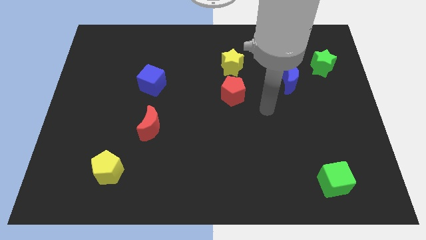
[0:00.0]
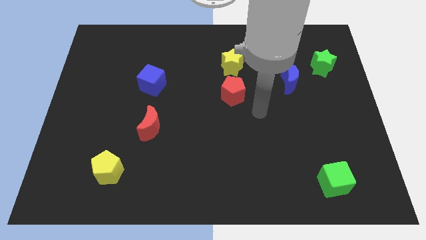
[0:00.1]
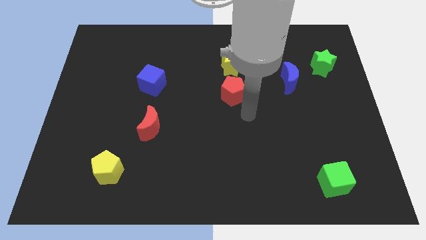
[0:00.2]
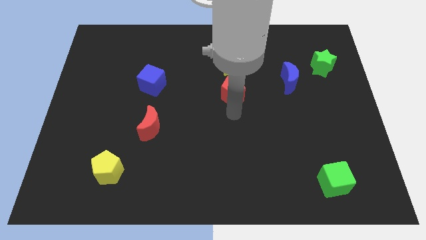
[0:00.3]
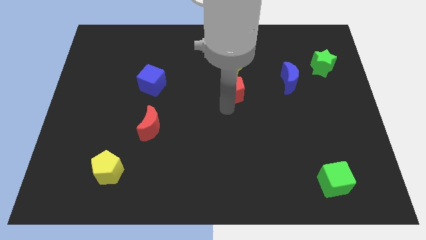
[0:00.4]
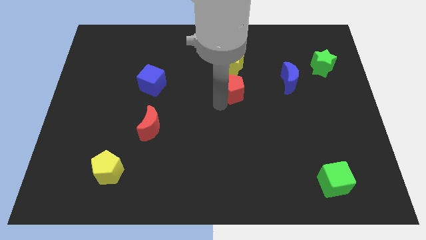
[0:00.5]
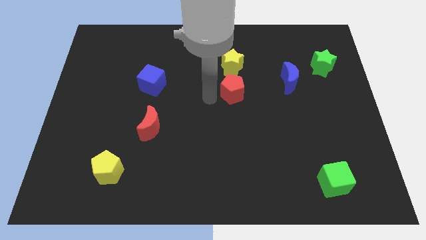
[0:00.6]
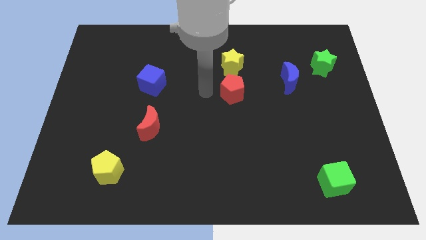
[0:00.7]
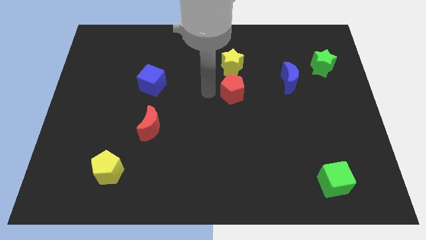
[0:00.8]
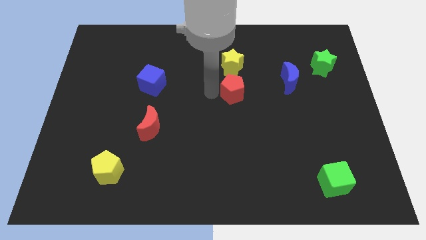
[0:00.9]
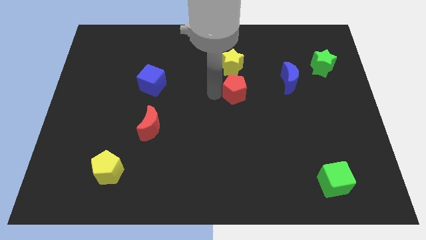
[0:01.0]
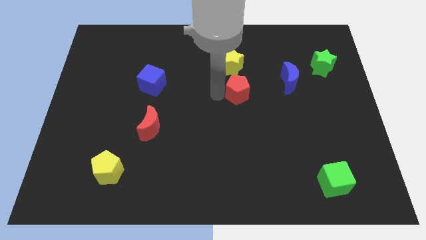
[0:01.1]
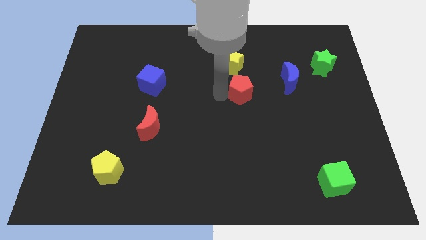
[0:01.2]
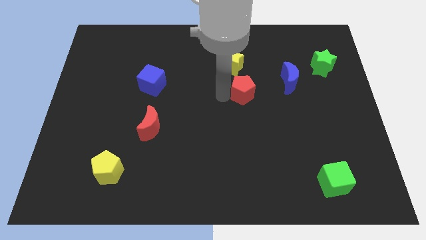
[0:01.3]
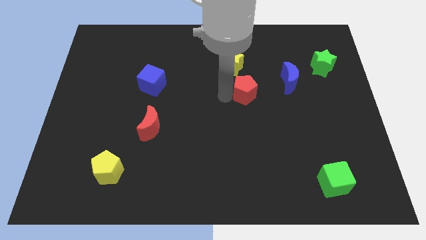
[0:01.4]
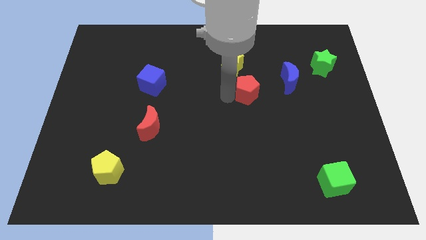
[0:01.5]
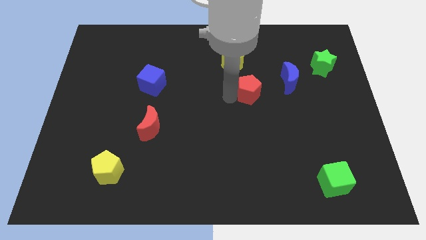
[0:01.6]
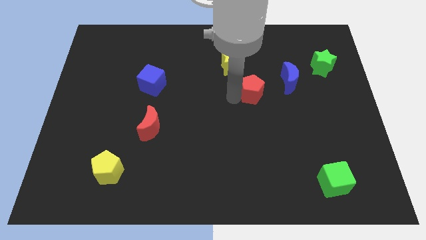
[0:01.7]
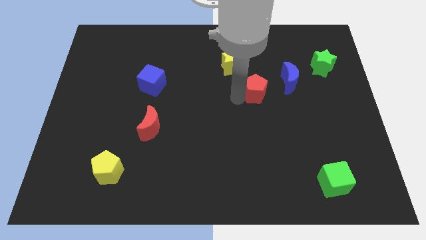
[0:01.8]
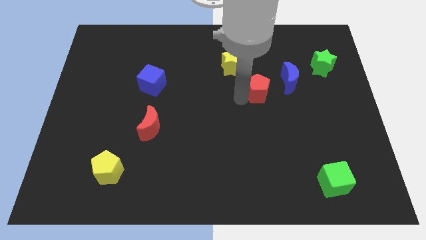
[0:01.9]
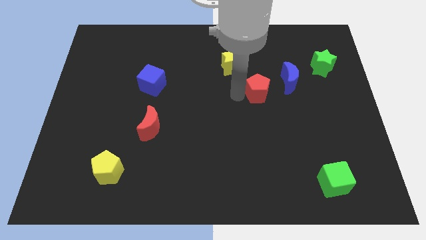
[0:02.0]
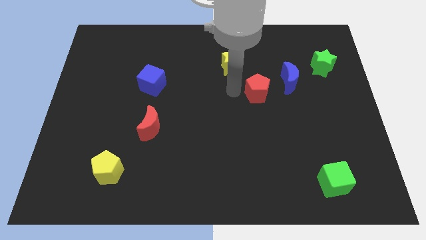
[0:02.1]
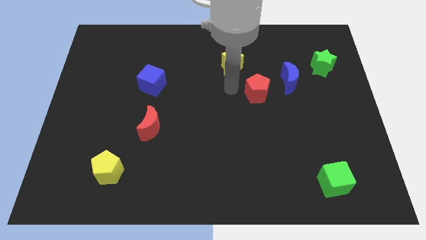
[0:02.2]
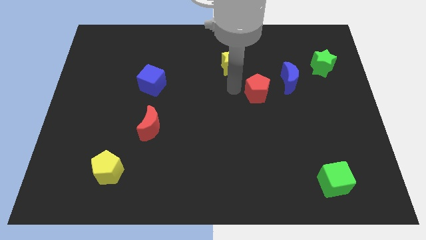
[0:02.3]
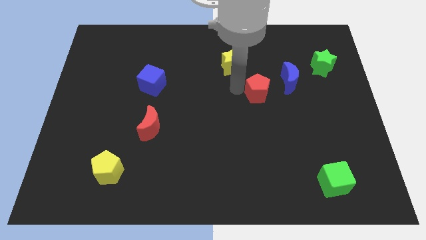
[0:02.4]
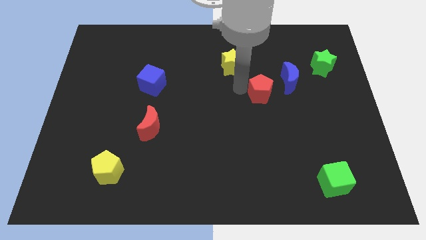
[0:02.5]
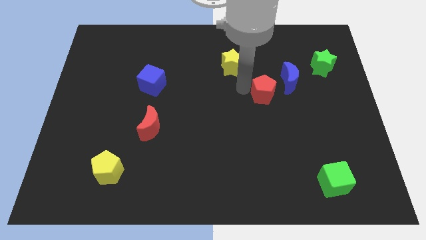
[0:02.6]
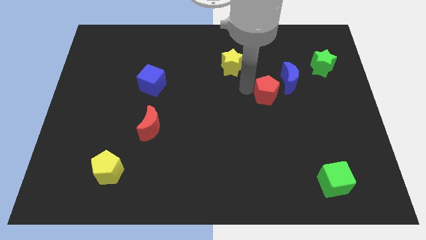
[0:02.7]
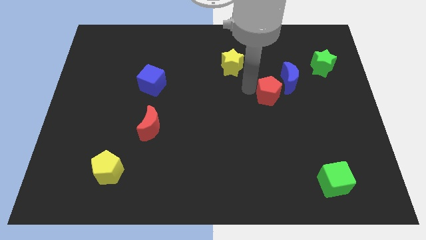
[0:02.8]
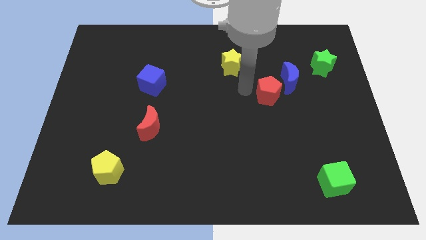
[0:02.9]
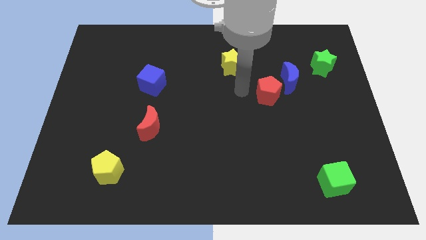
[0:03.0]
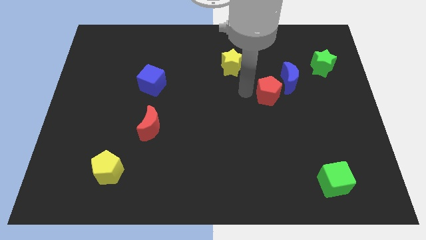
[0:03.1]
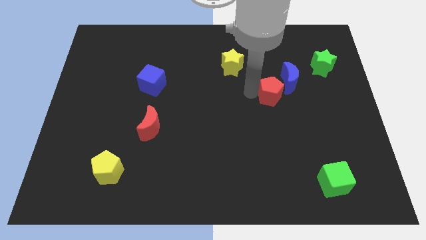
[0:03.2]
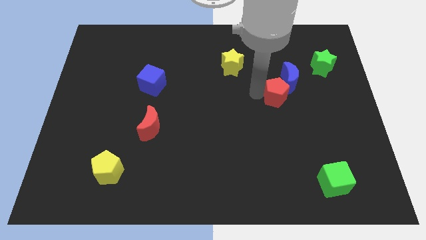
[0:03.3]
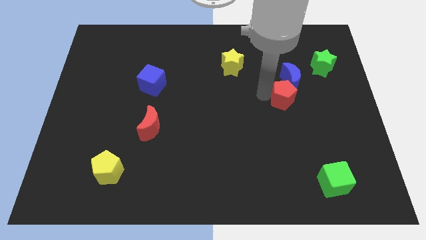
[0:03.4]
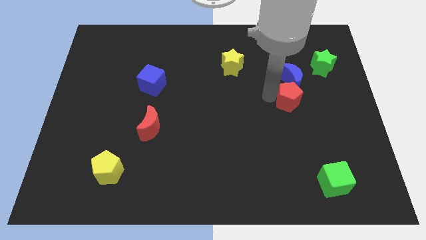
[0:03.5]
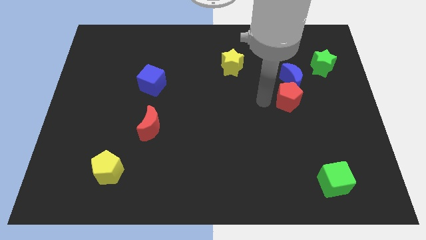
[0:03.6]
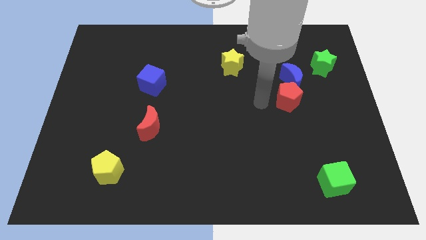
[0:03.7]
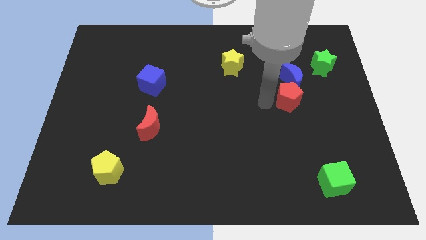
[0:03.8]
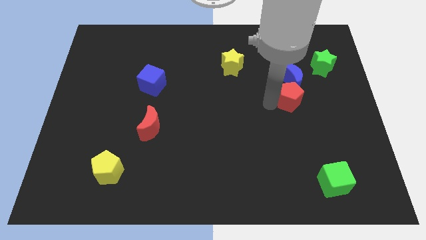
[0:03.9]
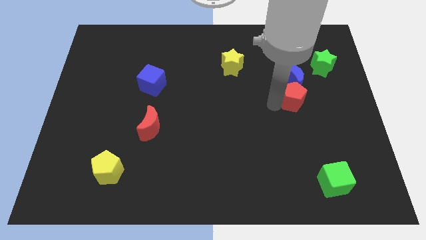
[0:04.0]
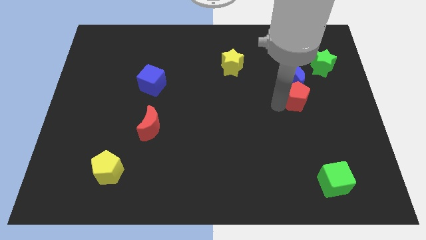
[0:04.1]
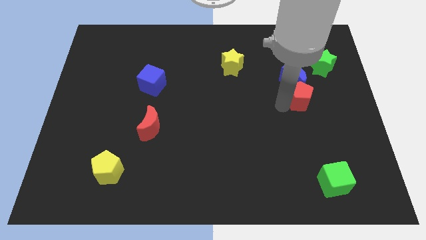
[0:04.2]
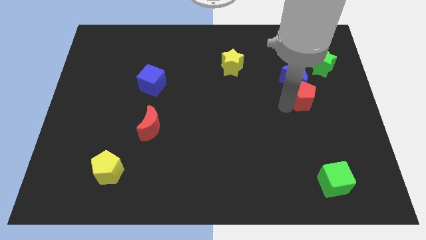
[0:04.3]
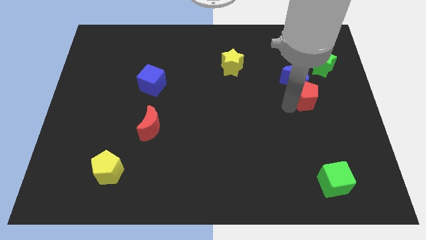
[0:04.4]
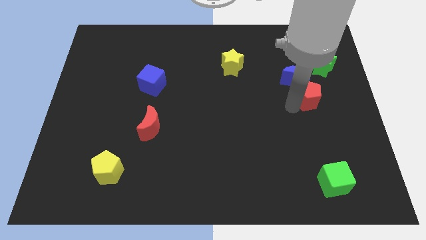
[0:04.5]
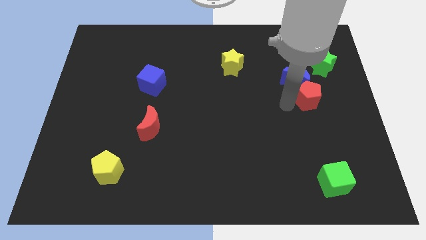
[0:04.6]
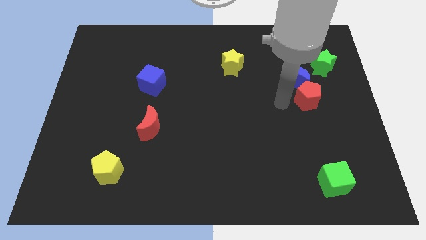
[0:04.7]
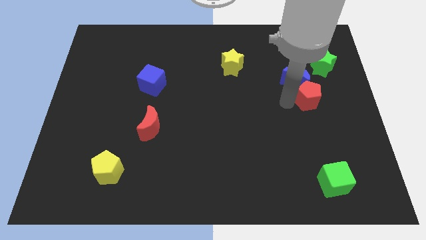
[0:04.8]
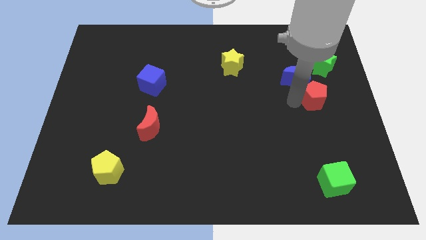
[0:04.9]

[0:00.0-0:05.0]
put the red pentagon below the green star

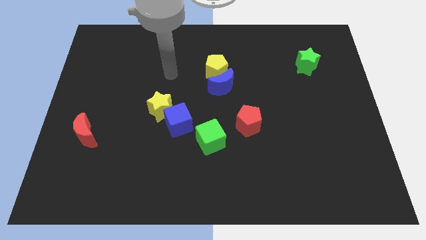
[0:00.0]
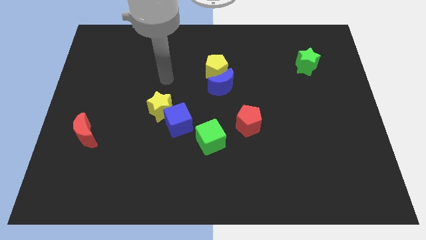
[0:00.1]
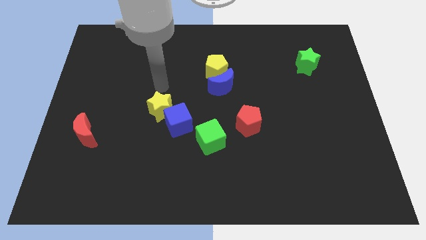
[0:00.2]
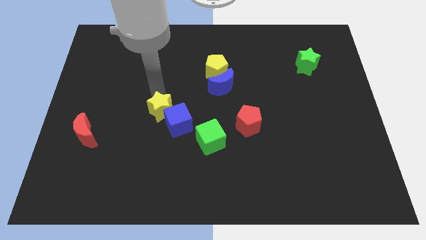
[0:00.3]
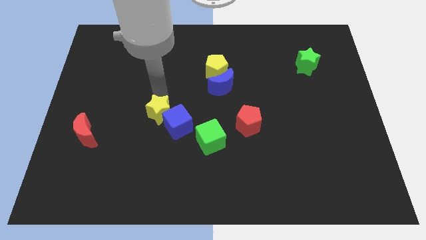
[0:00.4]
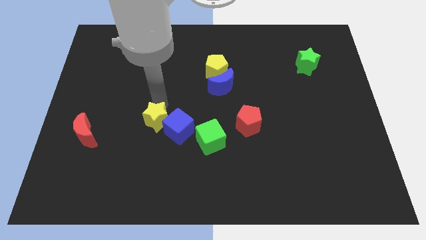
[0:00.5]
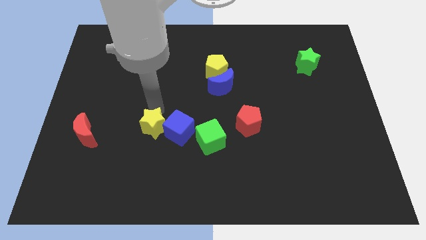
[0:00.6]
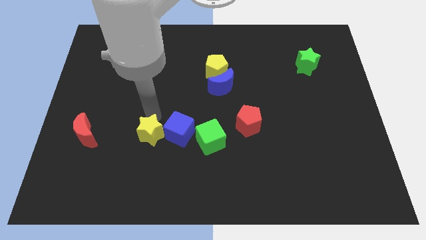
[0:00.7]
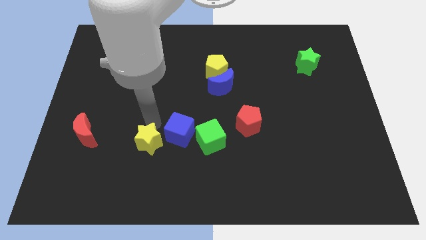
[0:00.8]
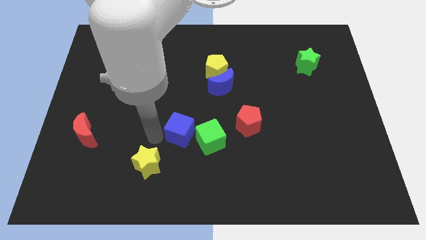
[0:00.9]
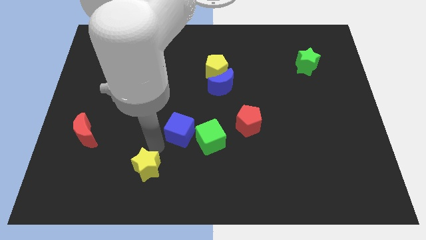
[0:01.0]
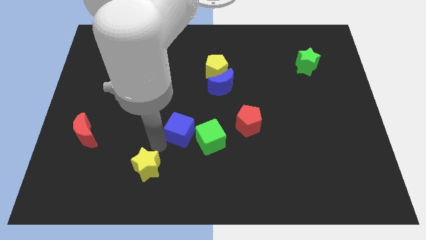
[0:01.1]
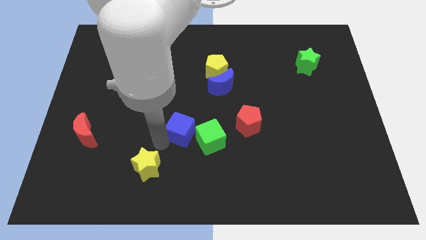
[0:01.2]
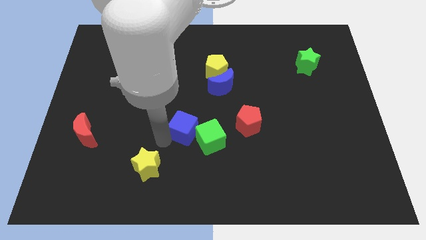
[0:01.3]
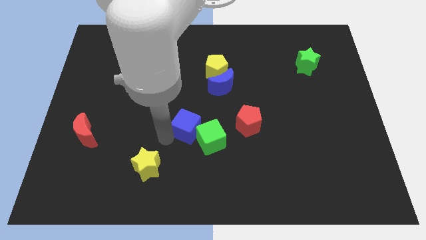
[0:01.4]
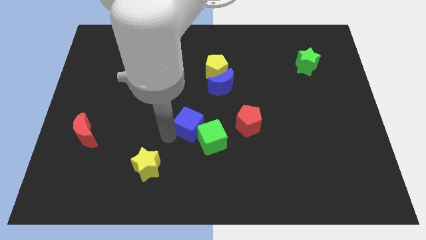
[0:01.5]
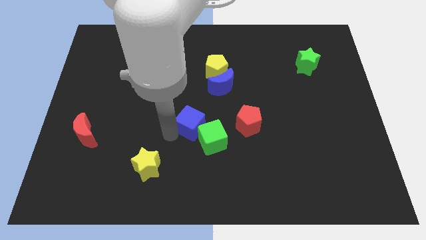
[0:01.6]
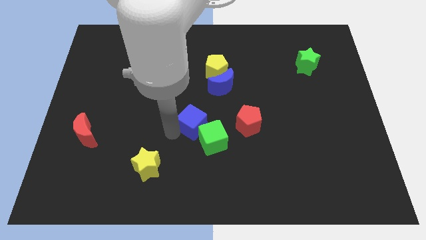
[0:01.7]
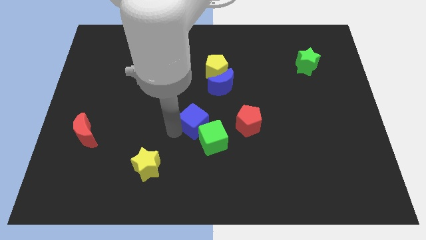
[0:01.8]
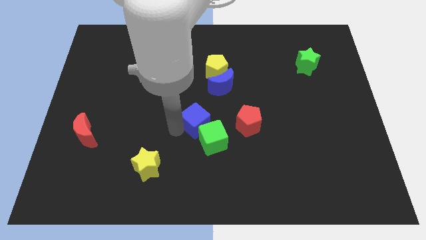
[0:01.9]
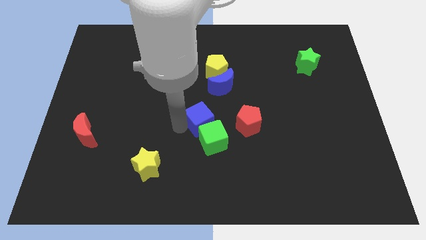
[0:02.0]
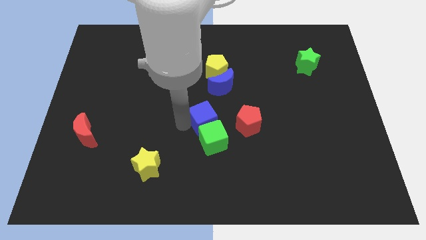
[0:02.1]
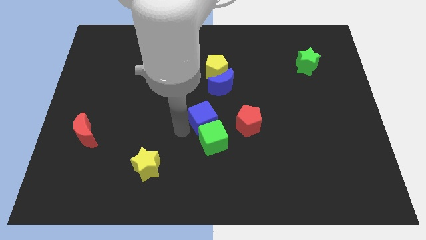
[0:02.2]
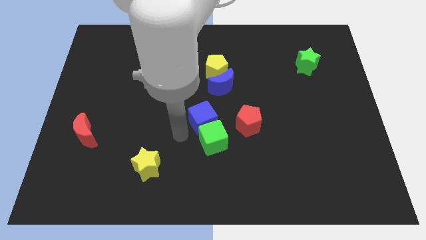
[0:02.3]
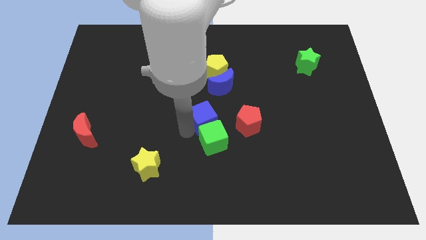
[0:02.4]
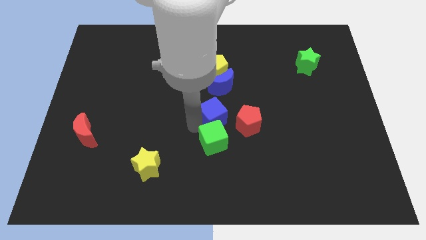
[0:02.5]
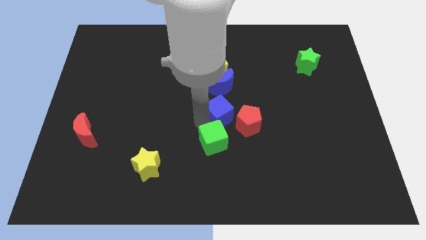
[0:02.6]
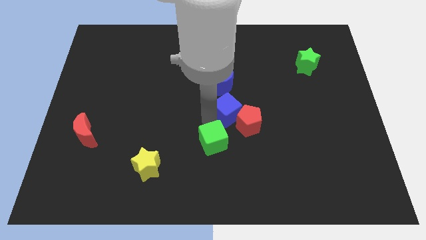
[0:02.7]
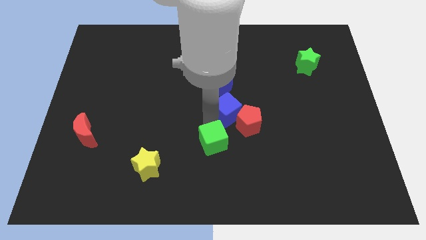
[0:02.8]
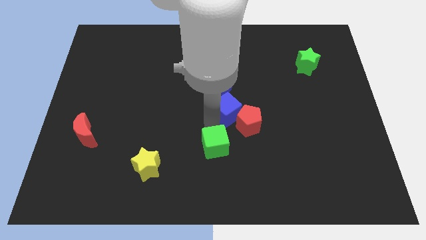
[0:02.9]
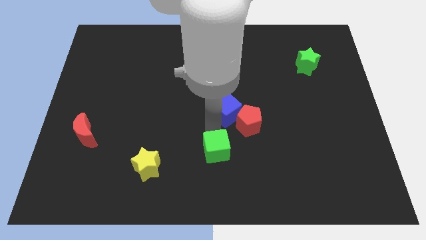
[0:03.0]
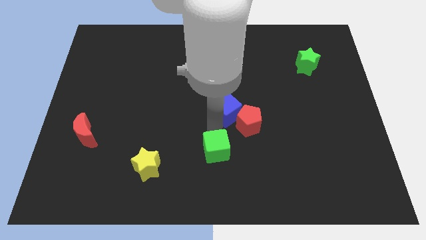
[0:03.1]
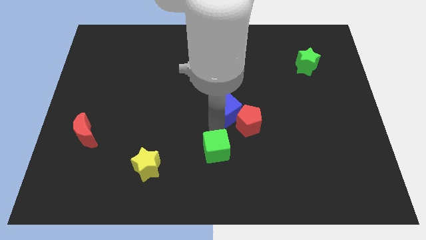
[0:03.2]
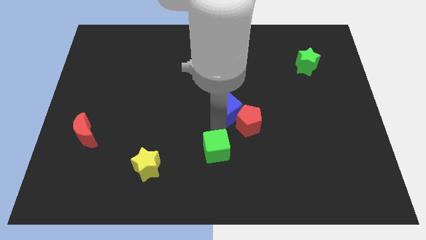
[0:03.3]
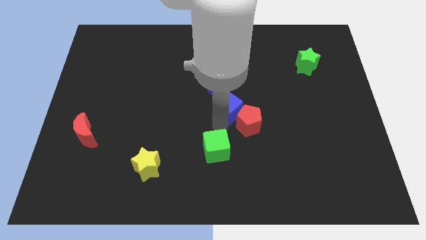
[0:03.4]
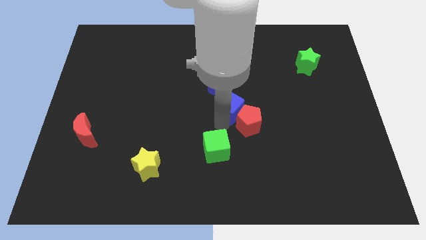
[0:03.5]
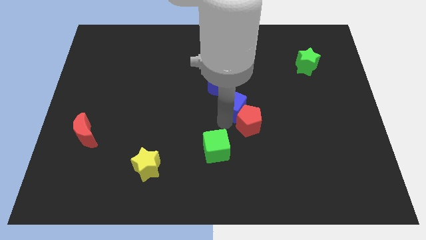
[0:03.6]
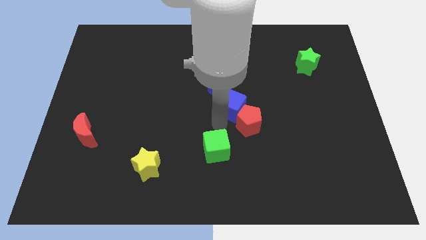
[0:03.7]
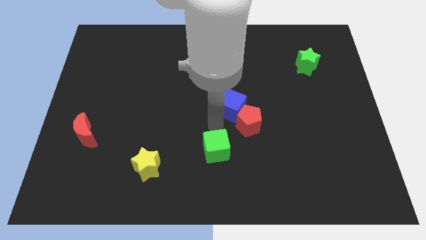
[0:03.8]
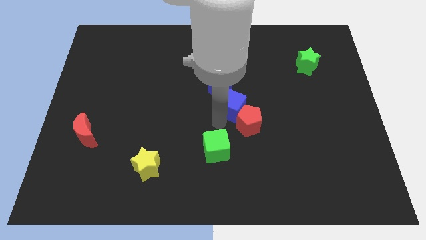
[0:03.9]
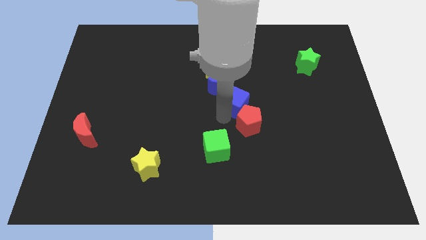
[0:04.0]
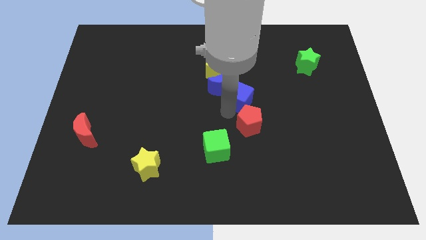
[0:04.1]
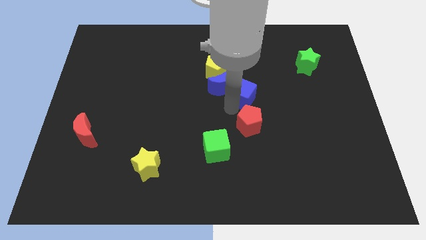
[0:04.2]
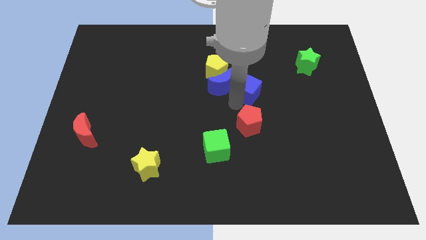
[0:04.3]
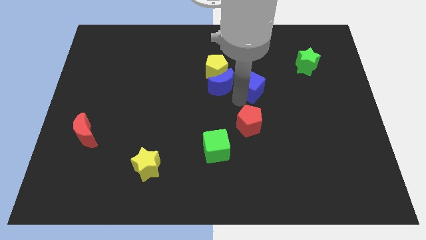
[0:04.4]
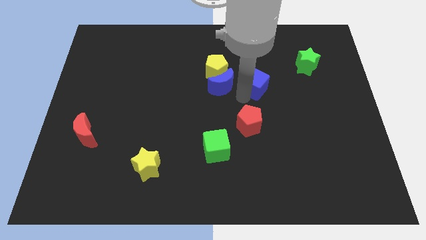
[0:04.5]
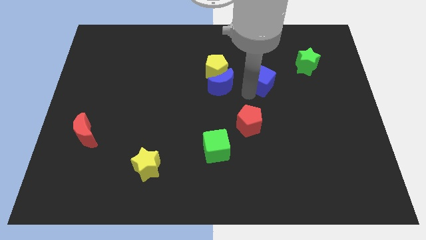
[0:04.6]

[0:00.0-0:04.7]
move the blue cube right of the yellow pentagon
